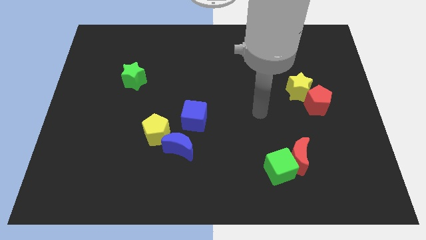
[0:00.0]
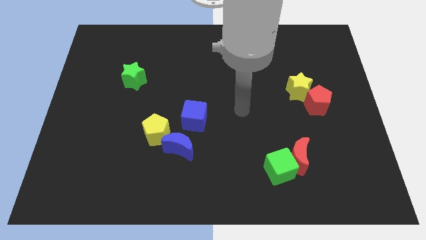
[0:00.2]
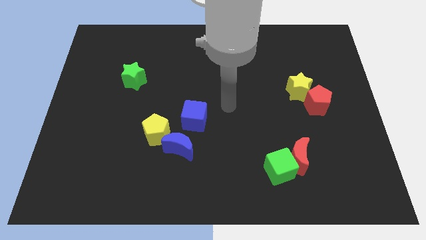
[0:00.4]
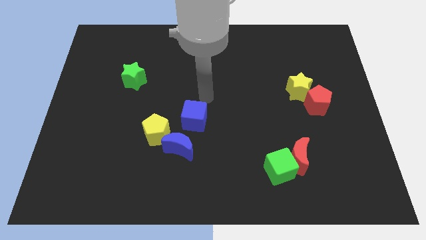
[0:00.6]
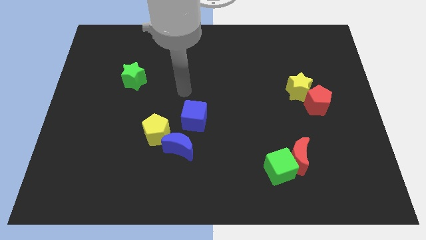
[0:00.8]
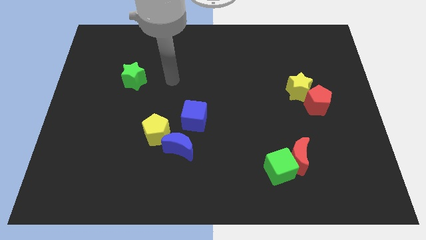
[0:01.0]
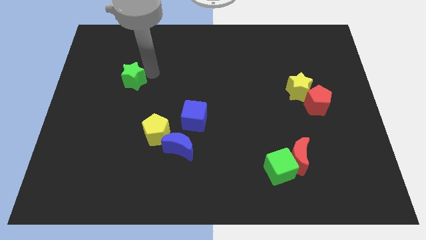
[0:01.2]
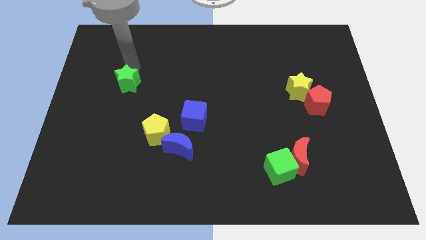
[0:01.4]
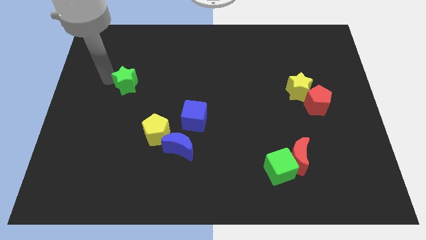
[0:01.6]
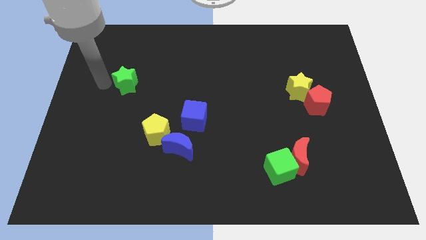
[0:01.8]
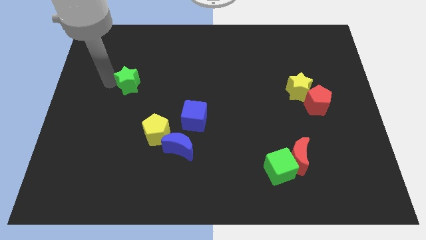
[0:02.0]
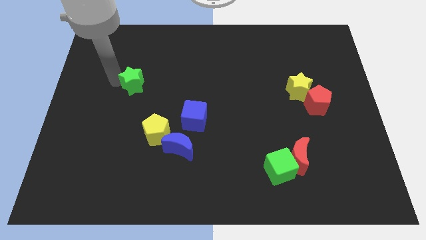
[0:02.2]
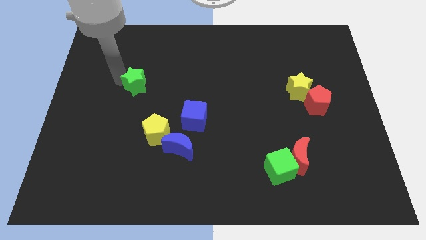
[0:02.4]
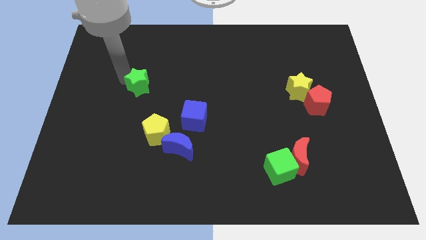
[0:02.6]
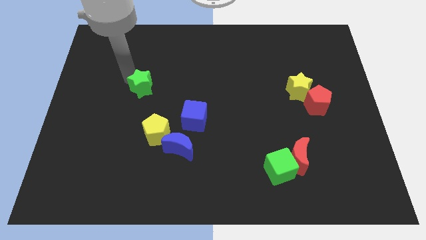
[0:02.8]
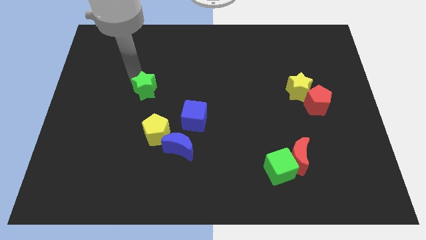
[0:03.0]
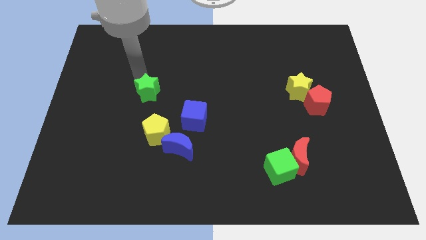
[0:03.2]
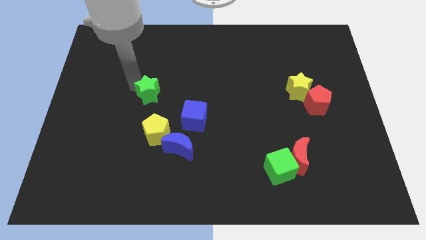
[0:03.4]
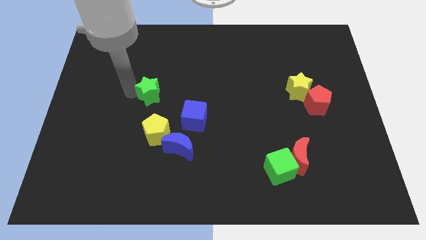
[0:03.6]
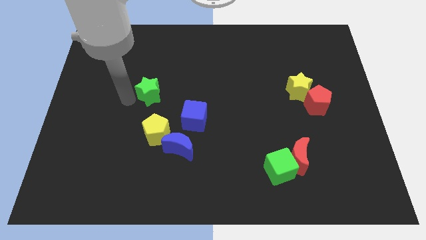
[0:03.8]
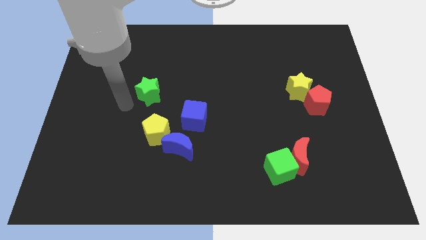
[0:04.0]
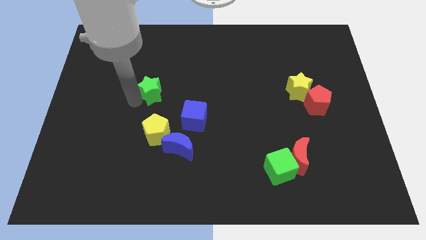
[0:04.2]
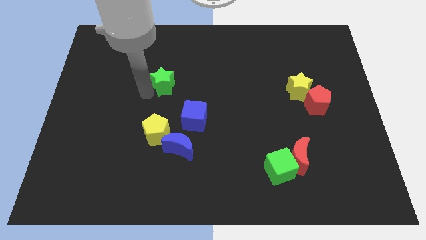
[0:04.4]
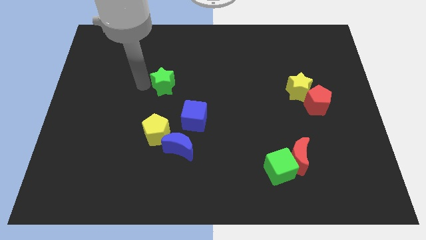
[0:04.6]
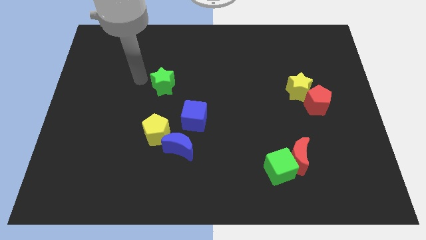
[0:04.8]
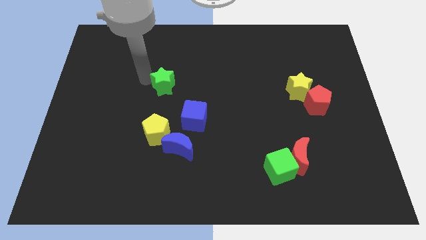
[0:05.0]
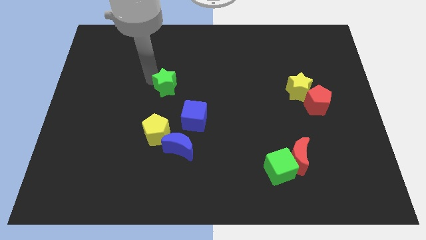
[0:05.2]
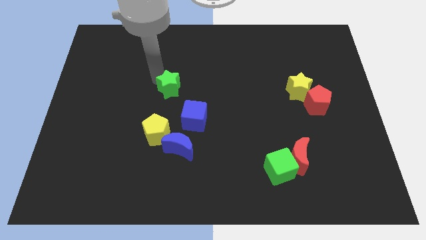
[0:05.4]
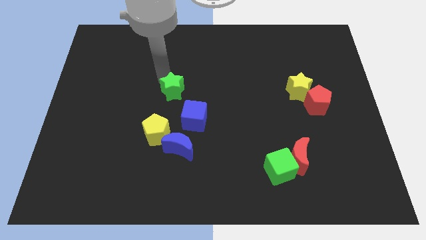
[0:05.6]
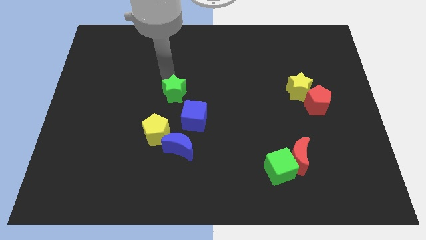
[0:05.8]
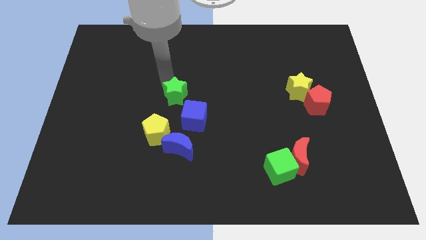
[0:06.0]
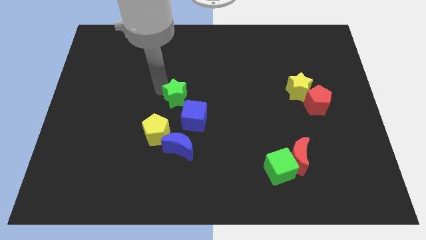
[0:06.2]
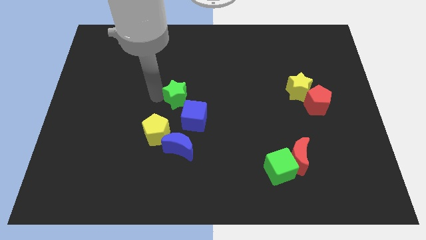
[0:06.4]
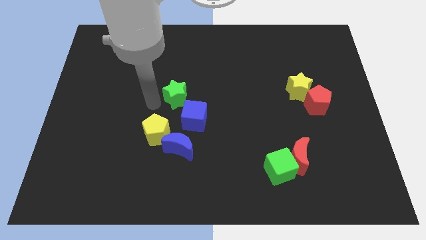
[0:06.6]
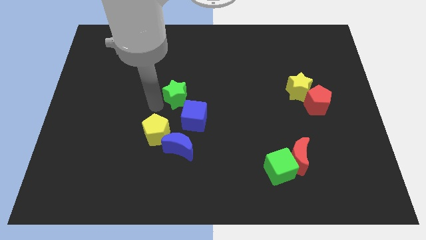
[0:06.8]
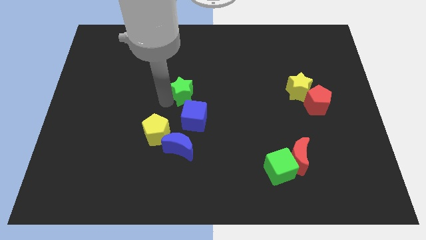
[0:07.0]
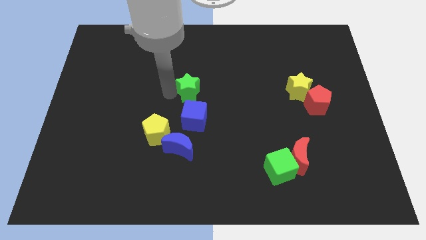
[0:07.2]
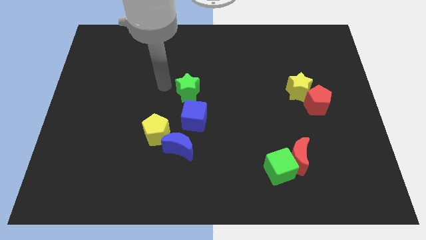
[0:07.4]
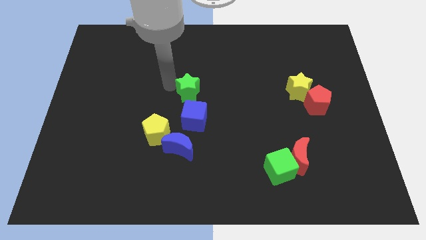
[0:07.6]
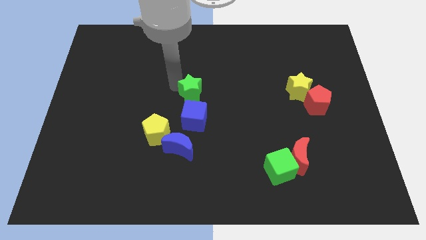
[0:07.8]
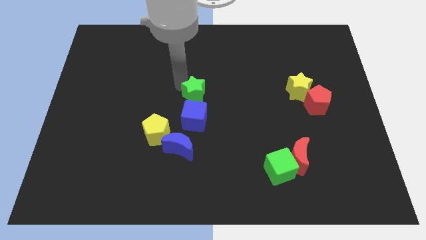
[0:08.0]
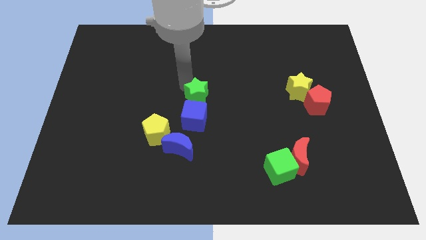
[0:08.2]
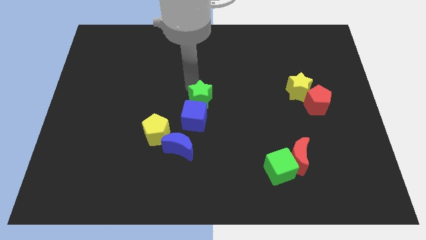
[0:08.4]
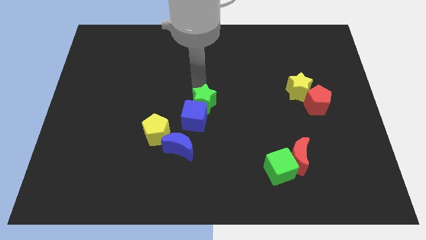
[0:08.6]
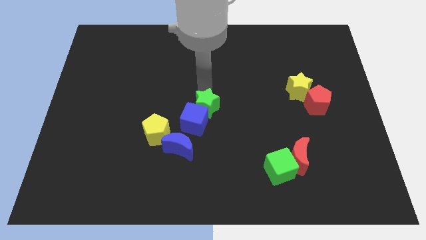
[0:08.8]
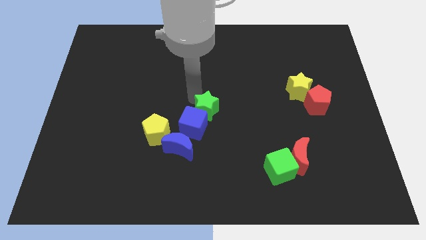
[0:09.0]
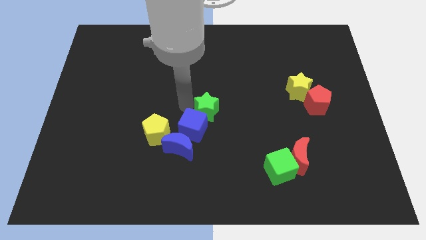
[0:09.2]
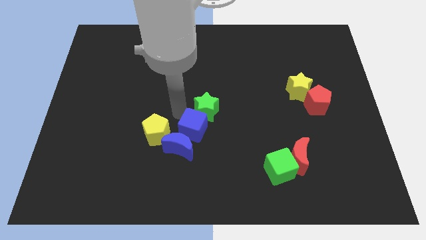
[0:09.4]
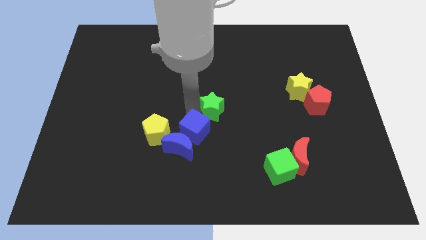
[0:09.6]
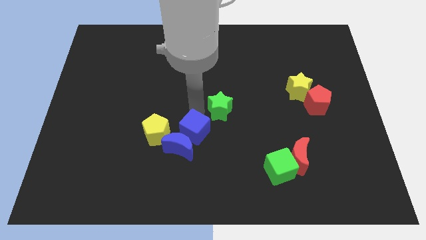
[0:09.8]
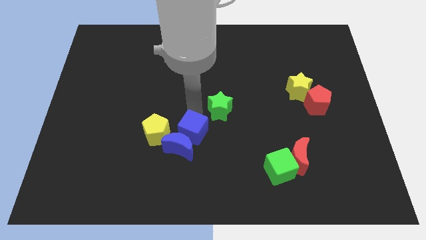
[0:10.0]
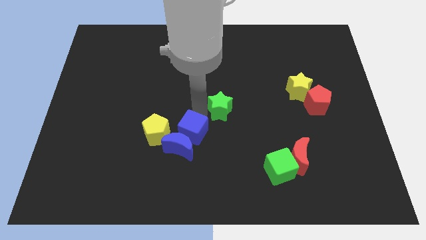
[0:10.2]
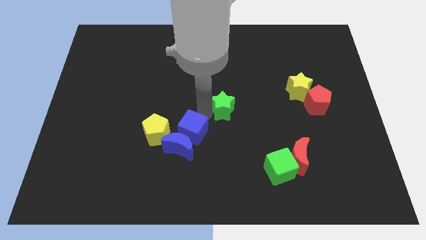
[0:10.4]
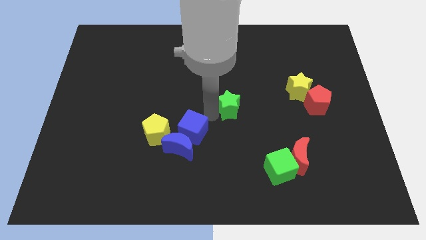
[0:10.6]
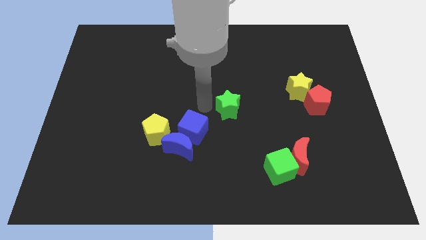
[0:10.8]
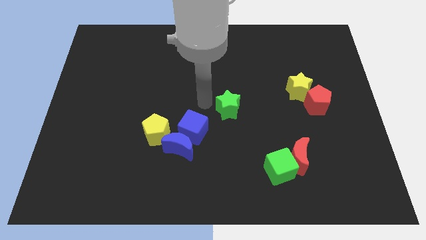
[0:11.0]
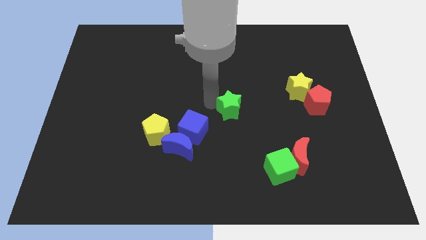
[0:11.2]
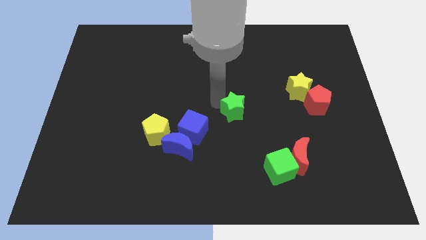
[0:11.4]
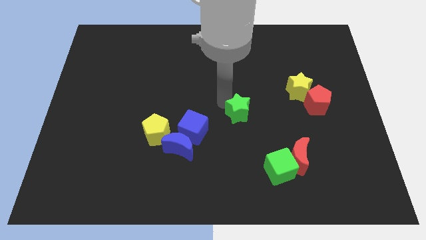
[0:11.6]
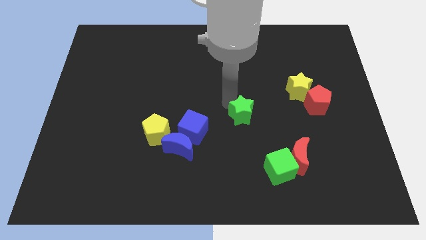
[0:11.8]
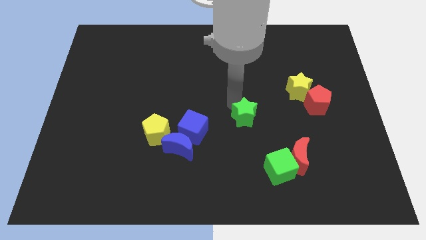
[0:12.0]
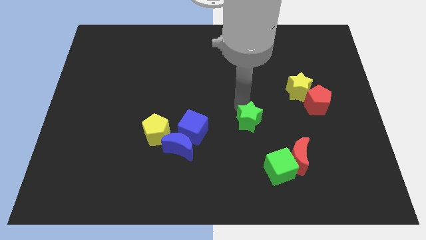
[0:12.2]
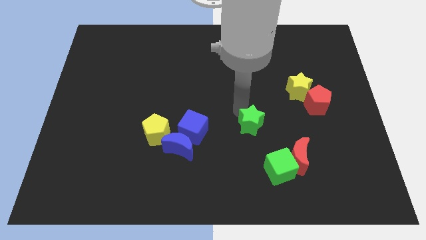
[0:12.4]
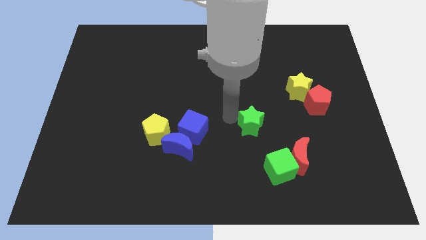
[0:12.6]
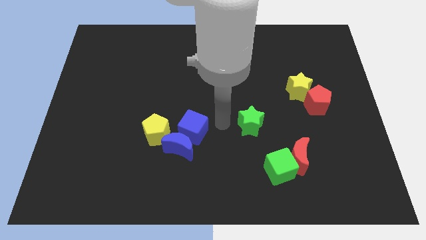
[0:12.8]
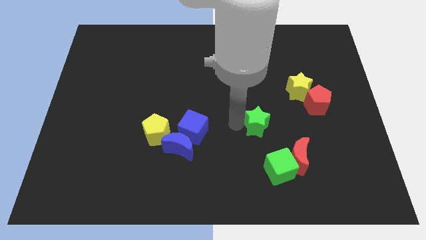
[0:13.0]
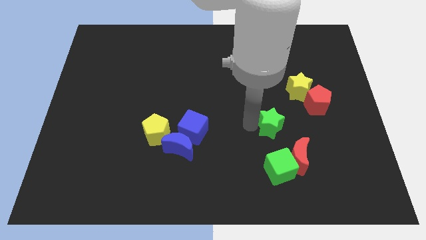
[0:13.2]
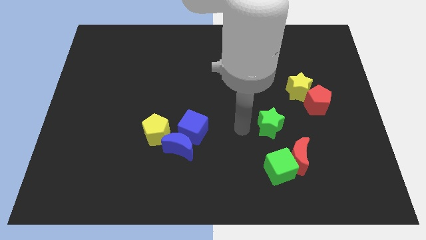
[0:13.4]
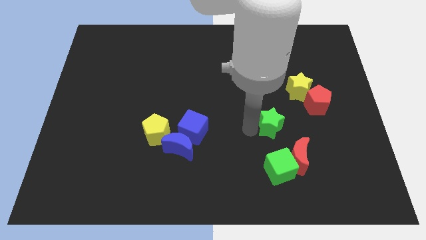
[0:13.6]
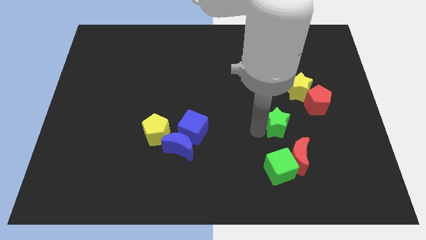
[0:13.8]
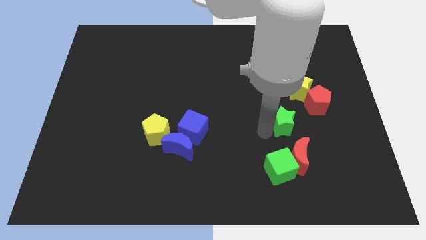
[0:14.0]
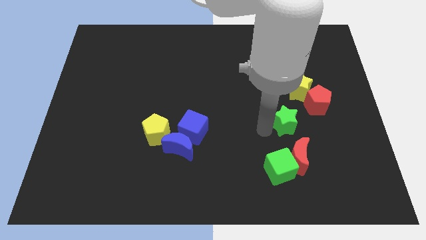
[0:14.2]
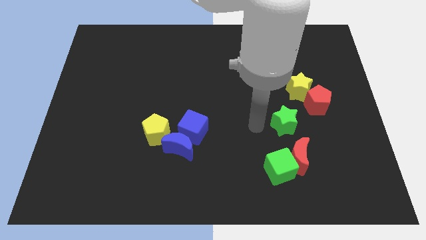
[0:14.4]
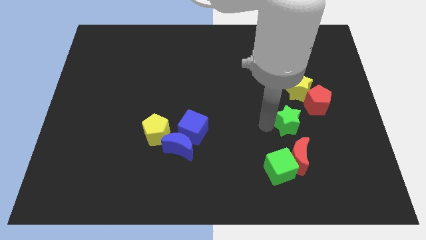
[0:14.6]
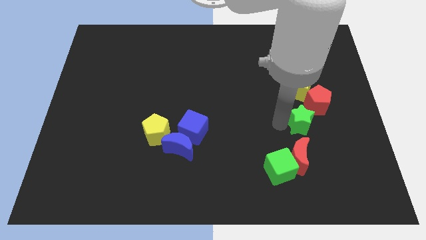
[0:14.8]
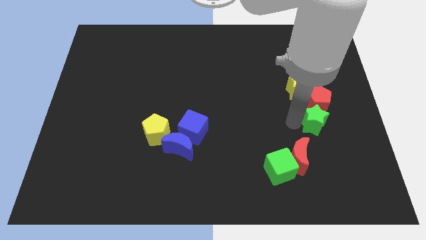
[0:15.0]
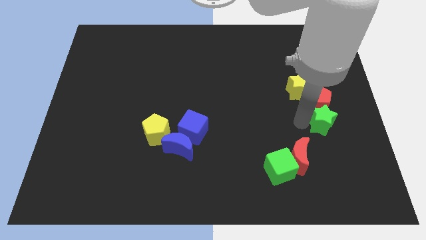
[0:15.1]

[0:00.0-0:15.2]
push the green star to the bottom right side of the yellow star
